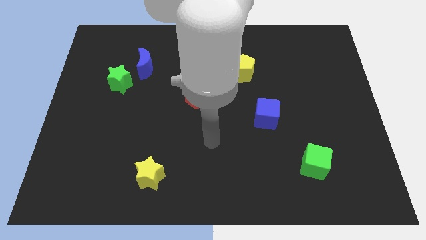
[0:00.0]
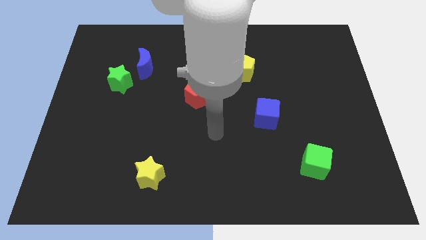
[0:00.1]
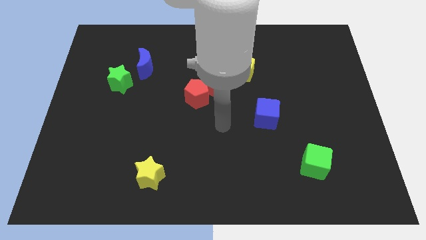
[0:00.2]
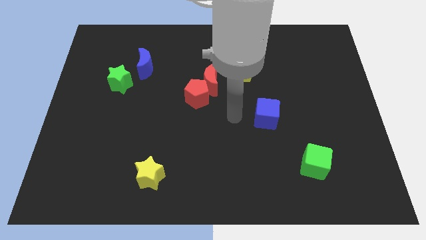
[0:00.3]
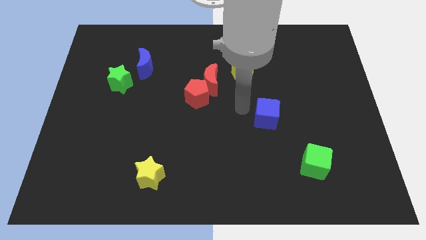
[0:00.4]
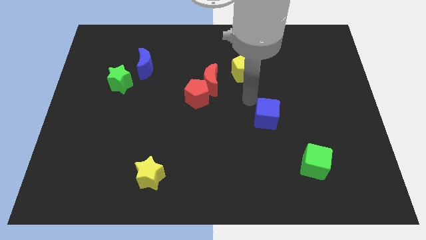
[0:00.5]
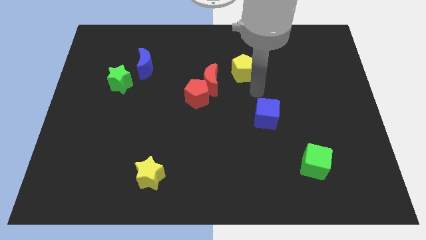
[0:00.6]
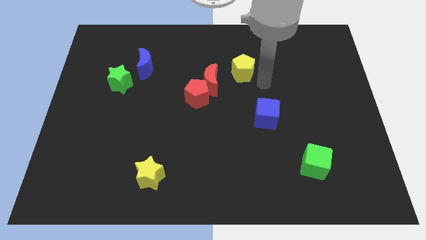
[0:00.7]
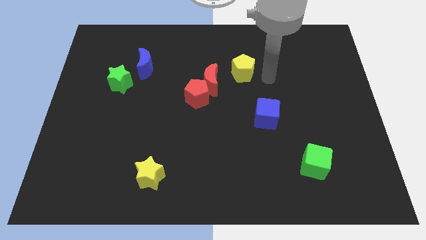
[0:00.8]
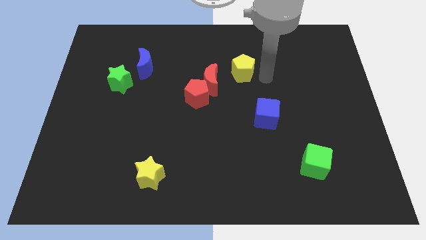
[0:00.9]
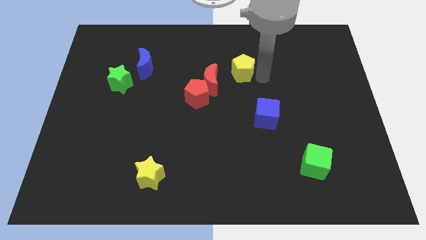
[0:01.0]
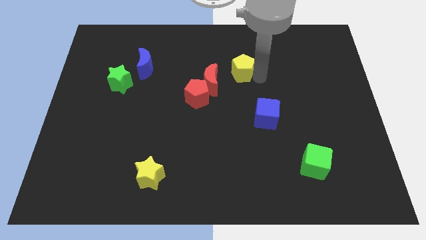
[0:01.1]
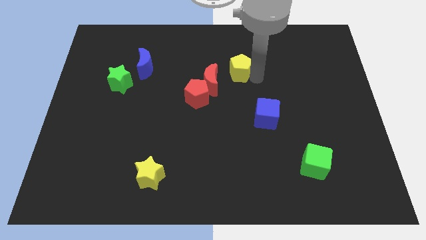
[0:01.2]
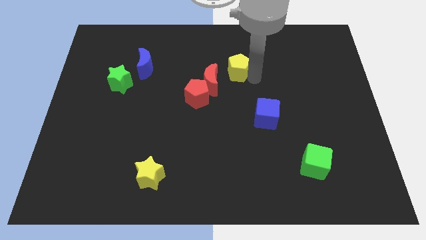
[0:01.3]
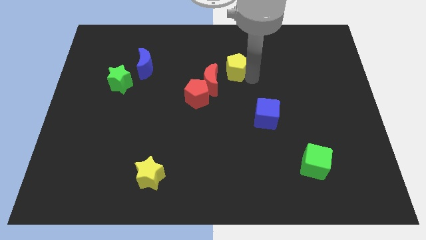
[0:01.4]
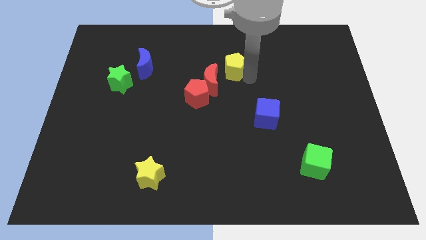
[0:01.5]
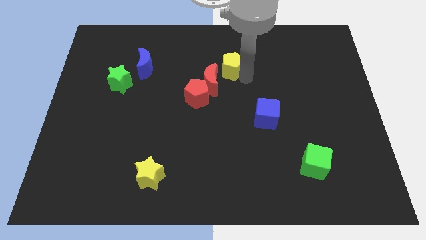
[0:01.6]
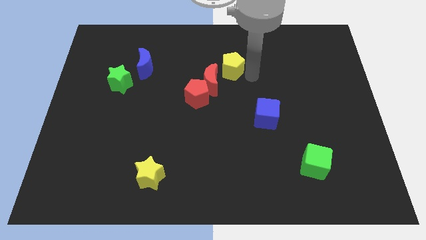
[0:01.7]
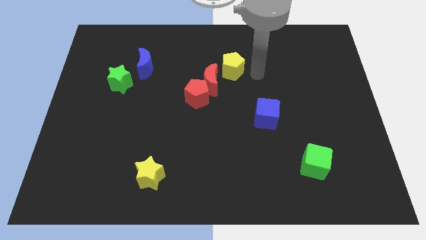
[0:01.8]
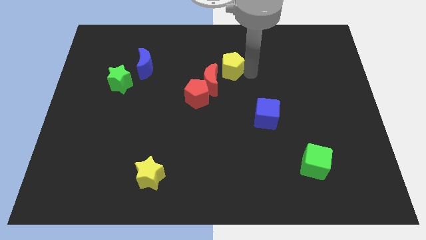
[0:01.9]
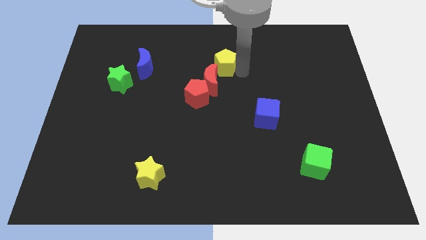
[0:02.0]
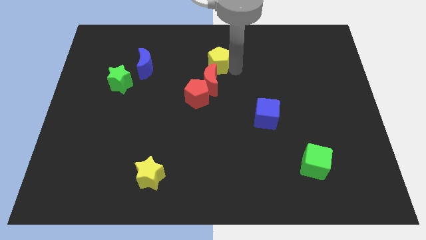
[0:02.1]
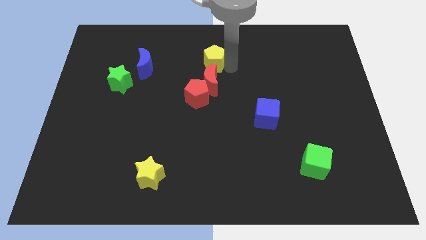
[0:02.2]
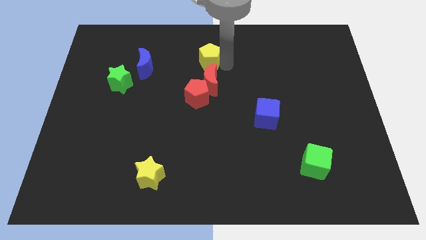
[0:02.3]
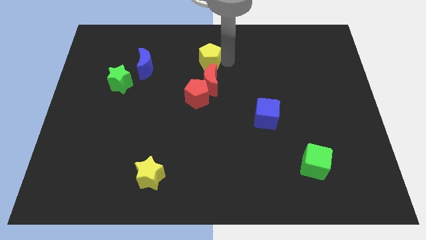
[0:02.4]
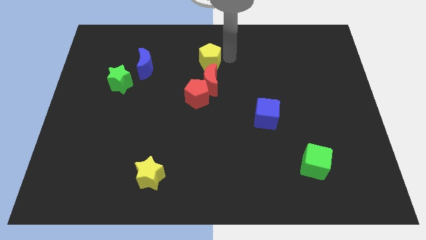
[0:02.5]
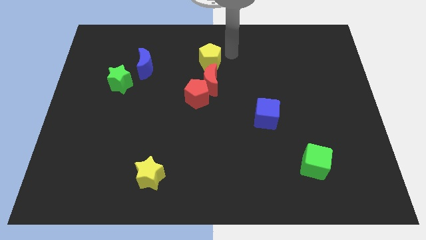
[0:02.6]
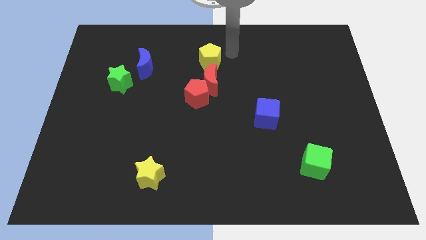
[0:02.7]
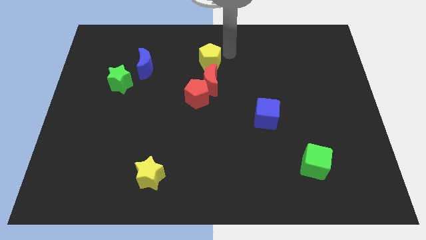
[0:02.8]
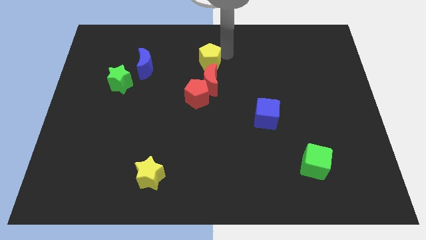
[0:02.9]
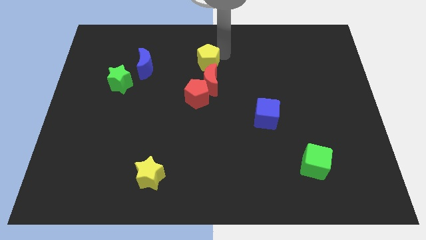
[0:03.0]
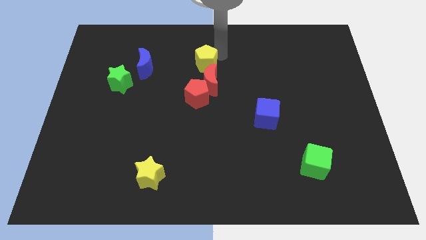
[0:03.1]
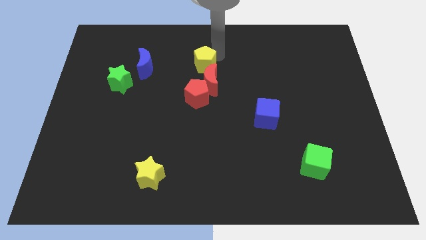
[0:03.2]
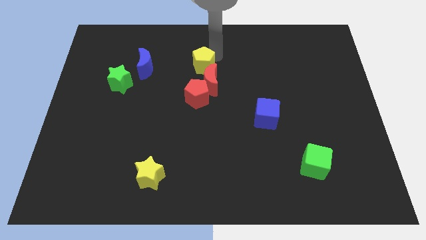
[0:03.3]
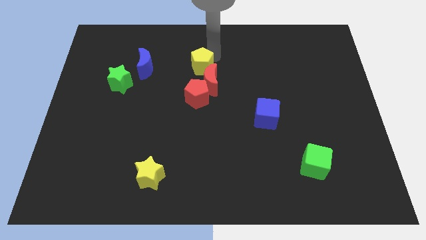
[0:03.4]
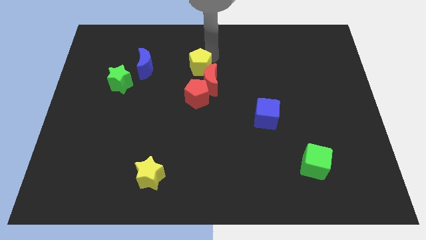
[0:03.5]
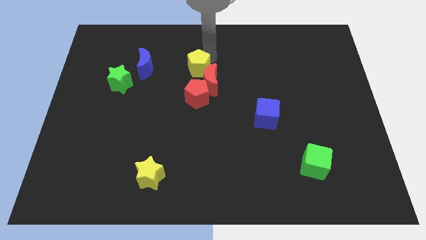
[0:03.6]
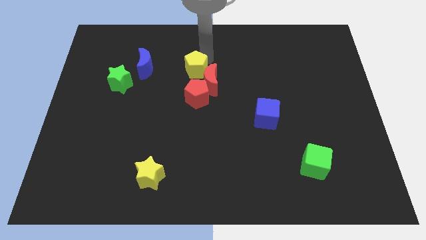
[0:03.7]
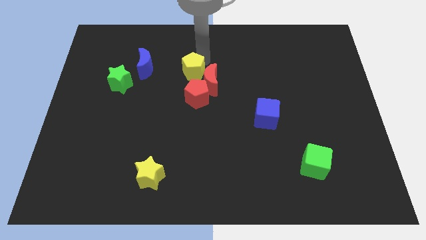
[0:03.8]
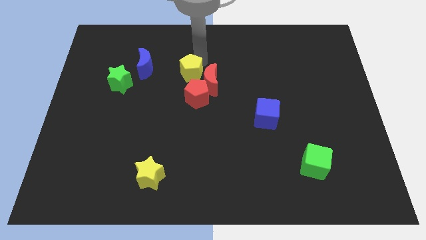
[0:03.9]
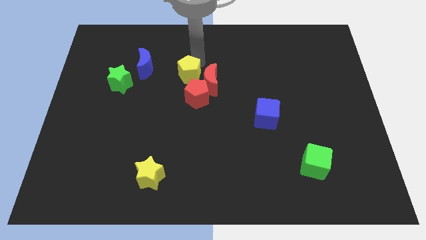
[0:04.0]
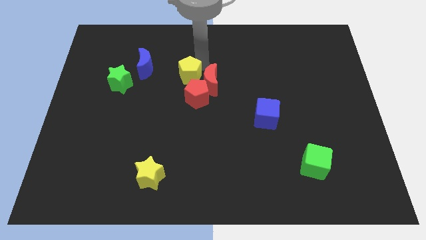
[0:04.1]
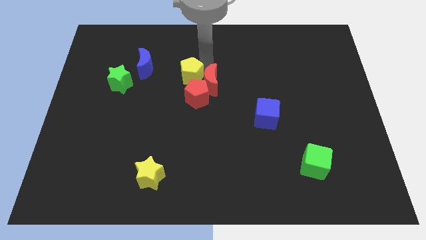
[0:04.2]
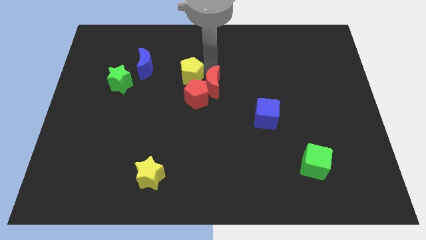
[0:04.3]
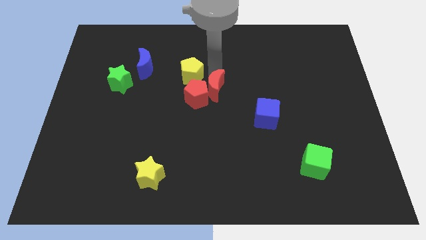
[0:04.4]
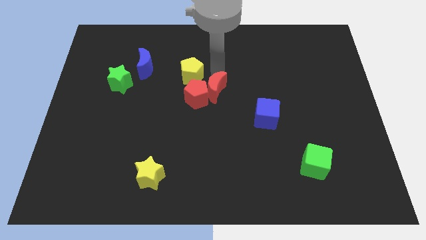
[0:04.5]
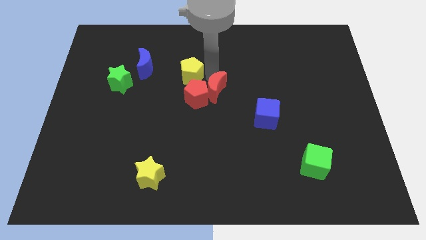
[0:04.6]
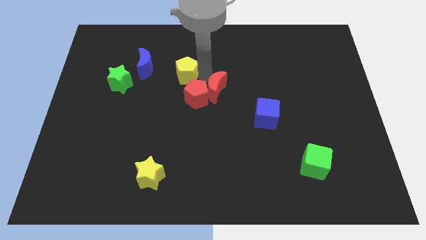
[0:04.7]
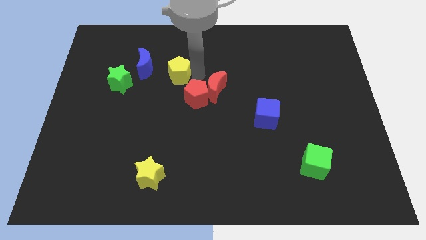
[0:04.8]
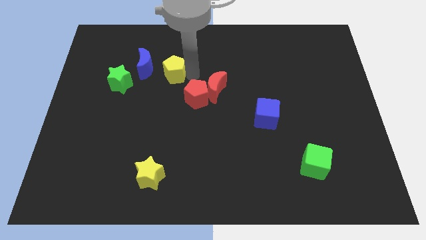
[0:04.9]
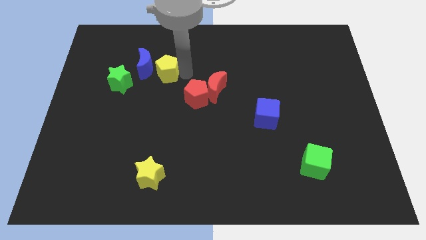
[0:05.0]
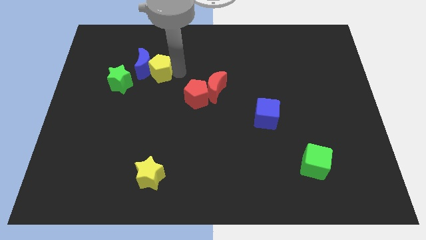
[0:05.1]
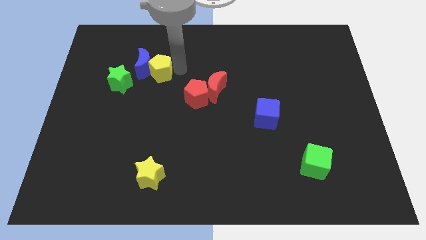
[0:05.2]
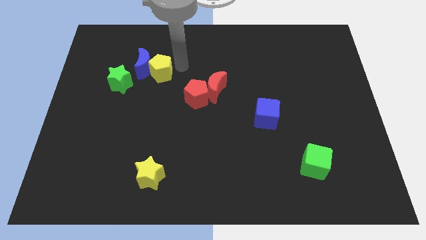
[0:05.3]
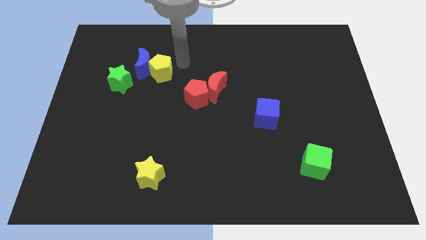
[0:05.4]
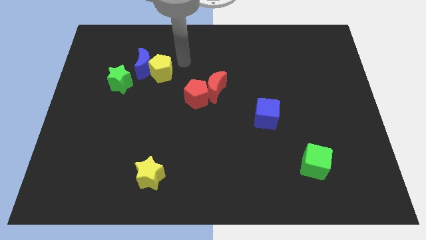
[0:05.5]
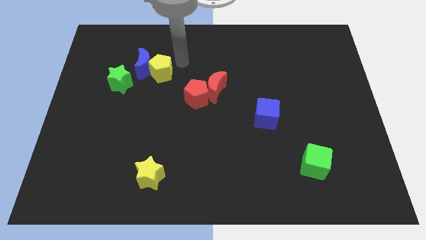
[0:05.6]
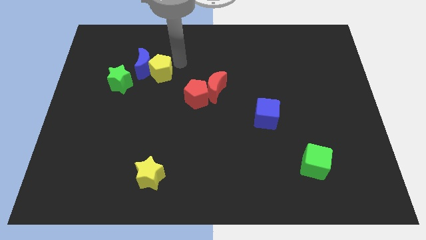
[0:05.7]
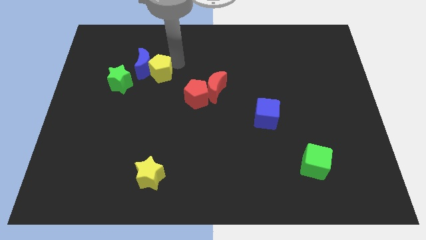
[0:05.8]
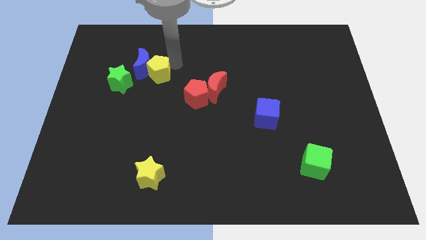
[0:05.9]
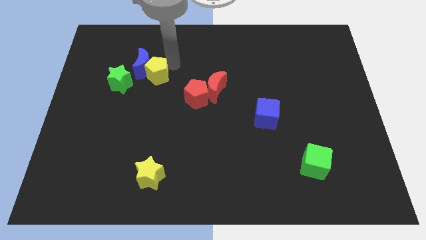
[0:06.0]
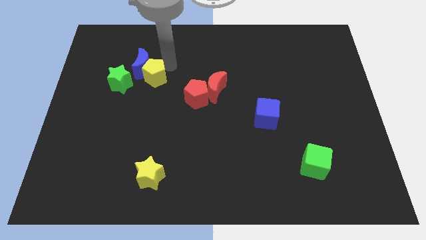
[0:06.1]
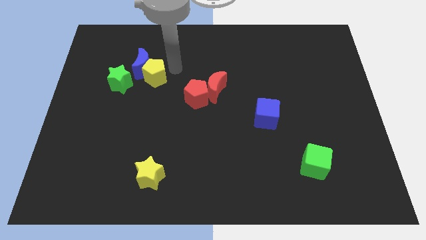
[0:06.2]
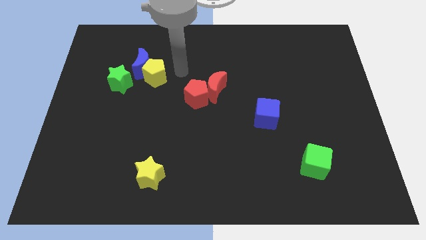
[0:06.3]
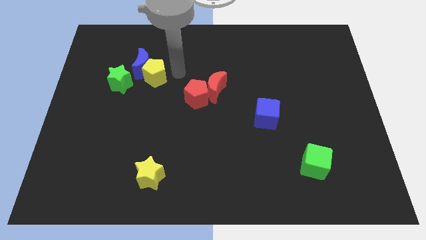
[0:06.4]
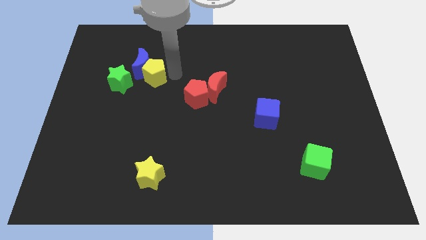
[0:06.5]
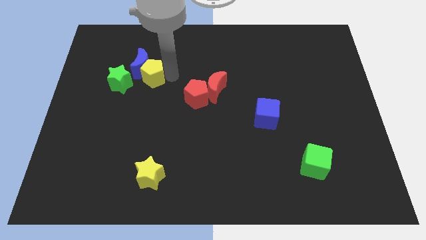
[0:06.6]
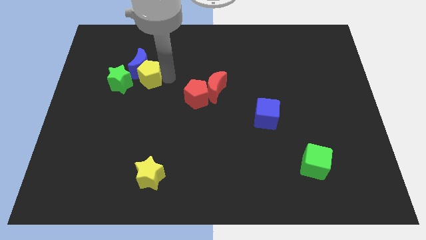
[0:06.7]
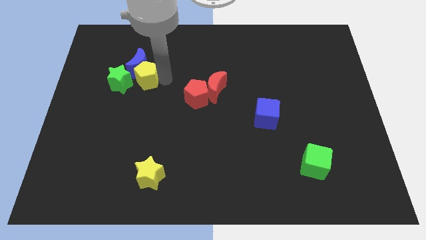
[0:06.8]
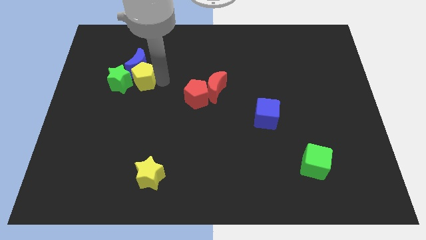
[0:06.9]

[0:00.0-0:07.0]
put the yellow pentagon towards the green star
